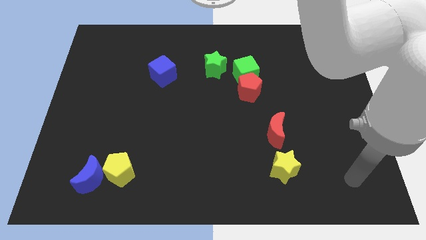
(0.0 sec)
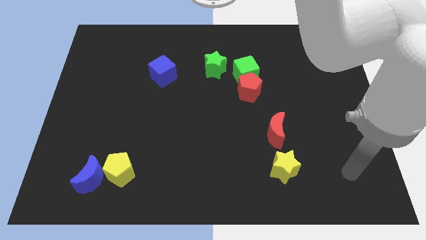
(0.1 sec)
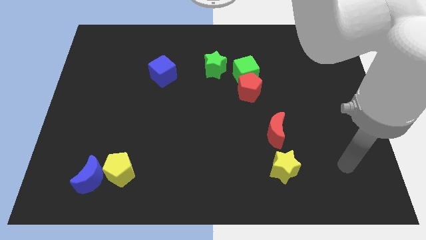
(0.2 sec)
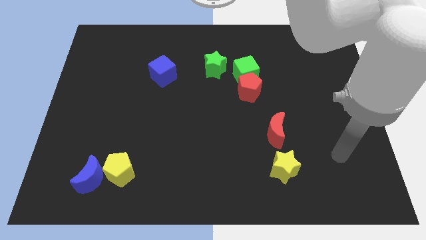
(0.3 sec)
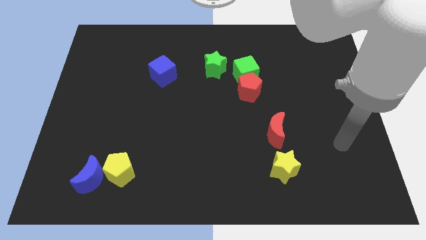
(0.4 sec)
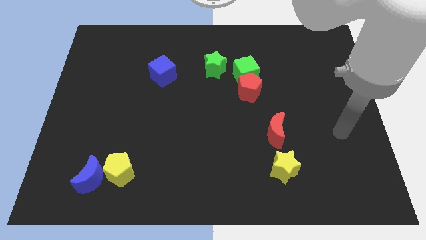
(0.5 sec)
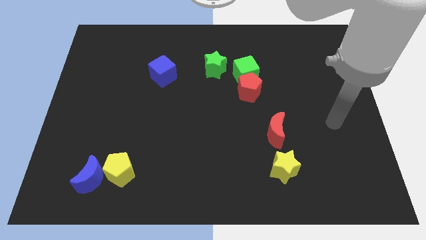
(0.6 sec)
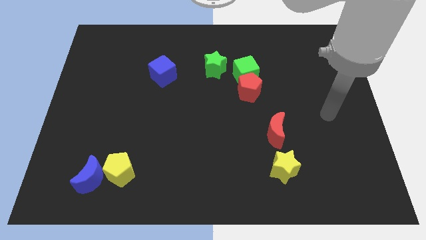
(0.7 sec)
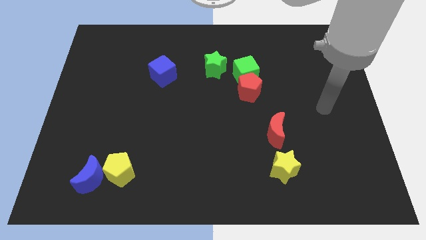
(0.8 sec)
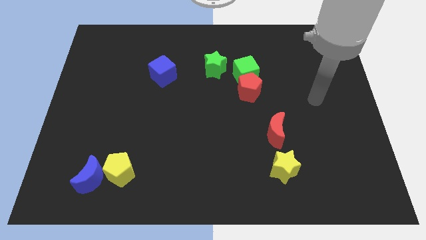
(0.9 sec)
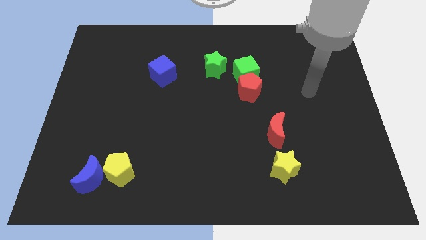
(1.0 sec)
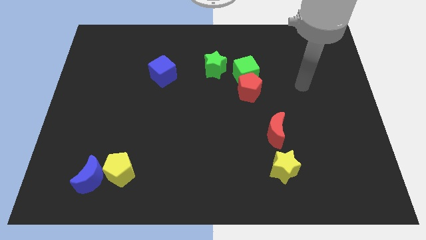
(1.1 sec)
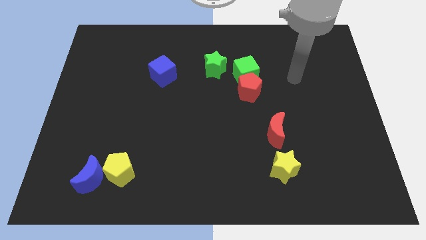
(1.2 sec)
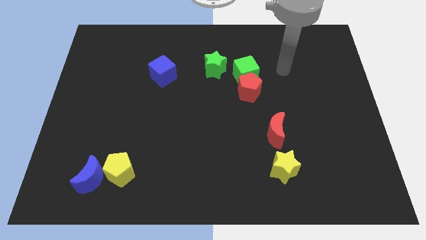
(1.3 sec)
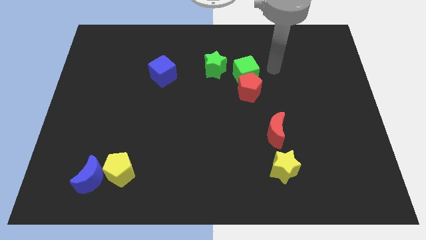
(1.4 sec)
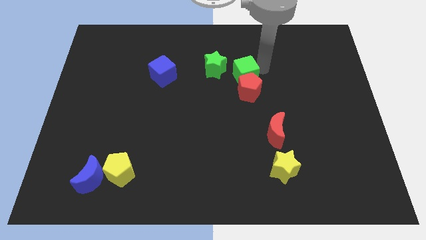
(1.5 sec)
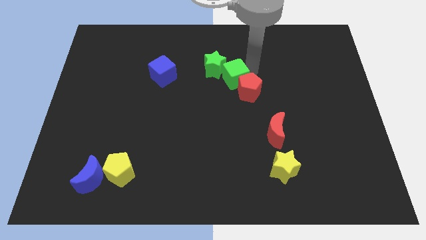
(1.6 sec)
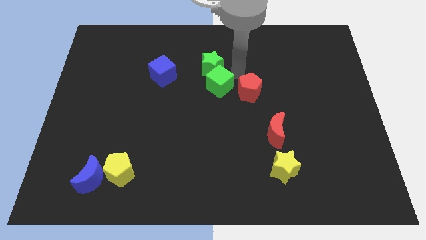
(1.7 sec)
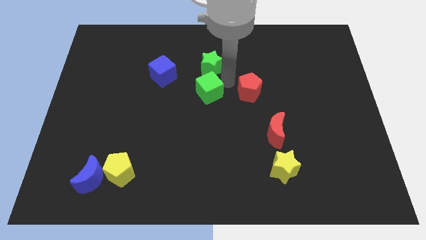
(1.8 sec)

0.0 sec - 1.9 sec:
pull the red pentagon apart from the green cube

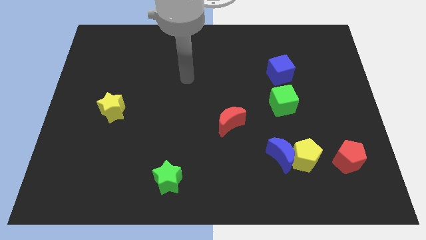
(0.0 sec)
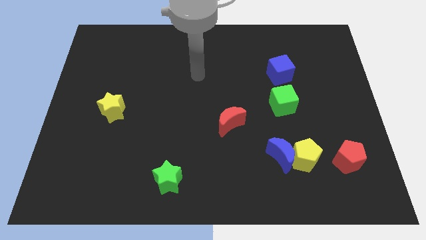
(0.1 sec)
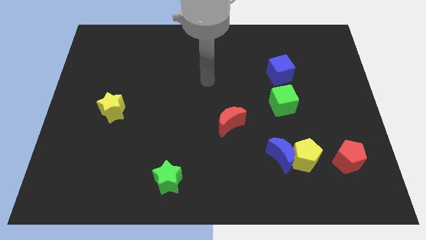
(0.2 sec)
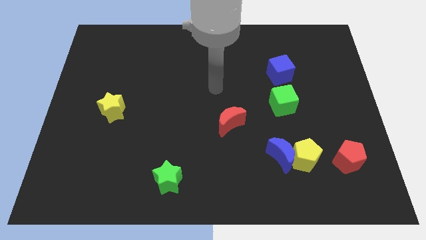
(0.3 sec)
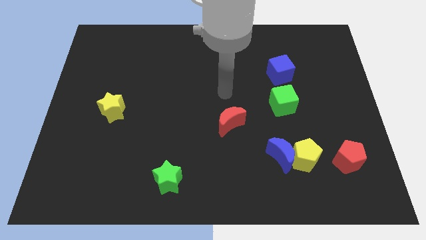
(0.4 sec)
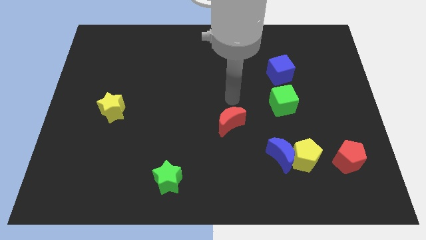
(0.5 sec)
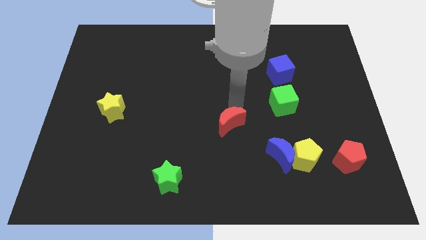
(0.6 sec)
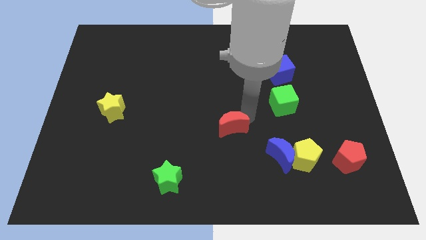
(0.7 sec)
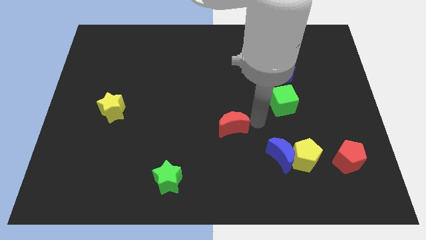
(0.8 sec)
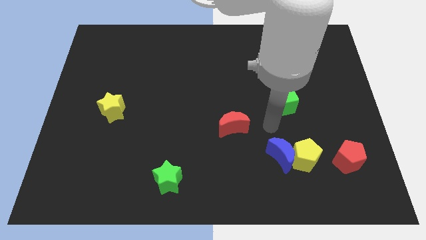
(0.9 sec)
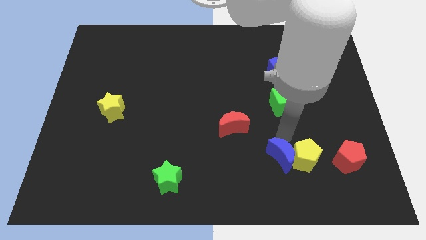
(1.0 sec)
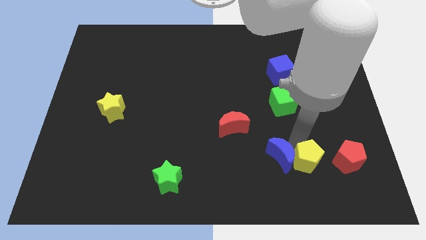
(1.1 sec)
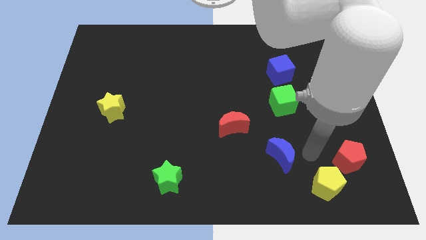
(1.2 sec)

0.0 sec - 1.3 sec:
move the blue moon away from the yellow pentagon

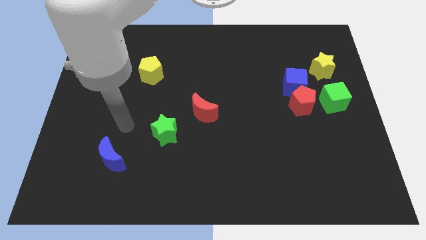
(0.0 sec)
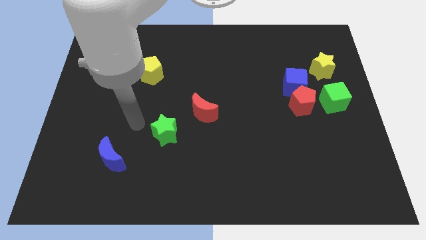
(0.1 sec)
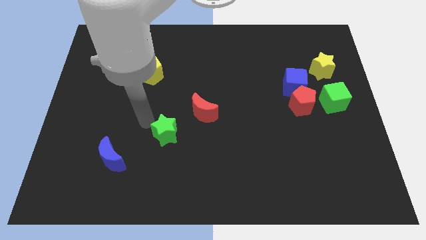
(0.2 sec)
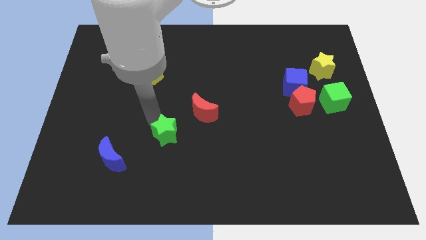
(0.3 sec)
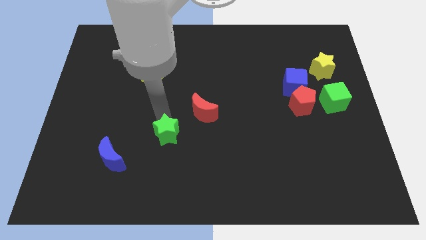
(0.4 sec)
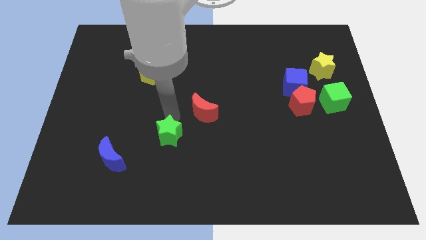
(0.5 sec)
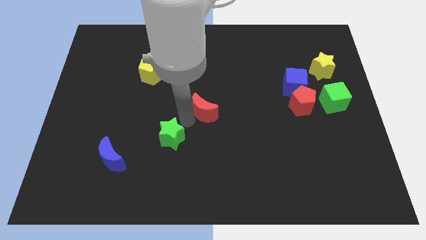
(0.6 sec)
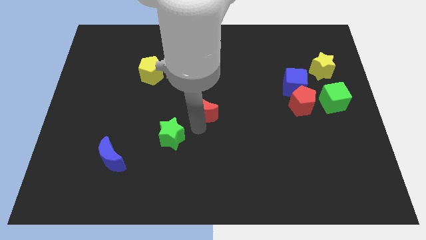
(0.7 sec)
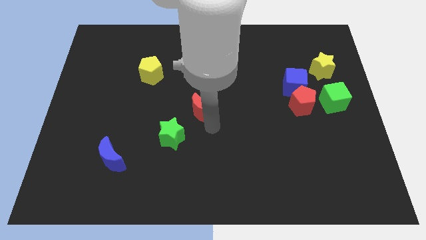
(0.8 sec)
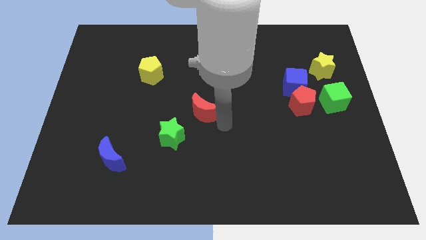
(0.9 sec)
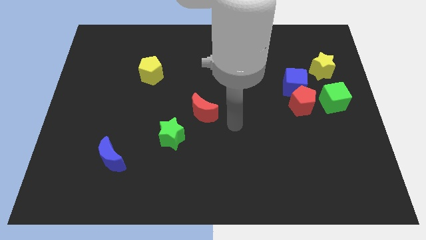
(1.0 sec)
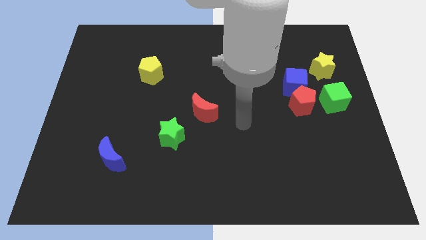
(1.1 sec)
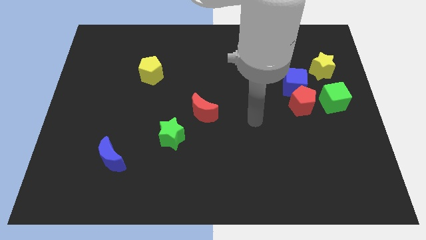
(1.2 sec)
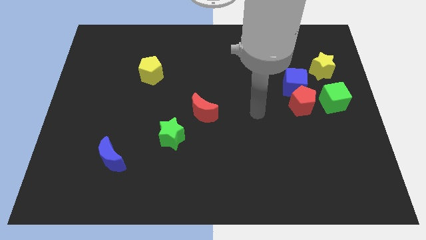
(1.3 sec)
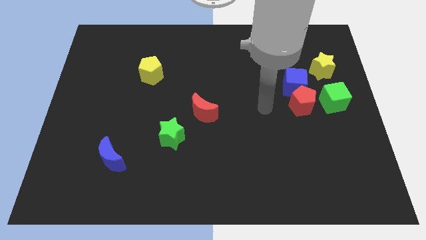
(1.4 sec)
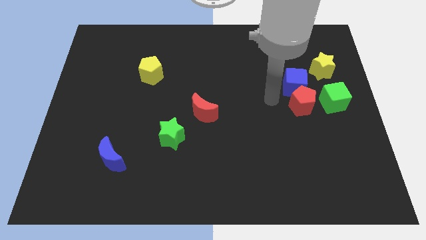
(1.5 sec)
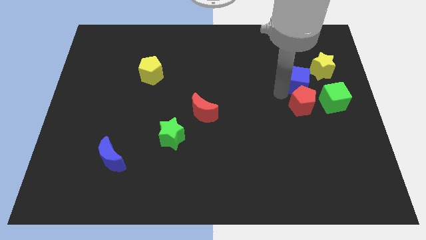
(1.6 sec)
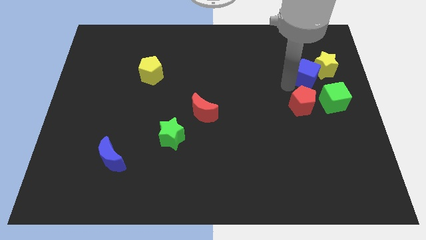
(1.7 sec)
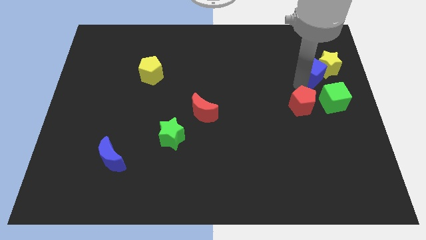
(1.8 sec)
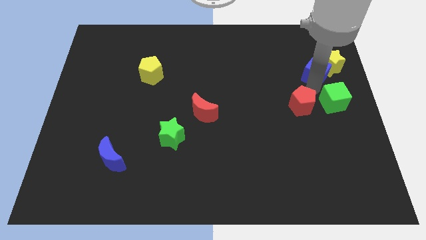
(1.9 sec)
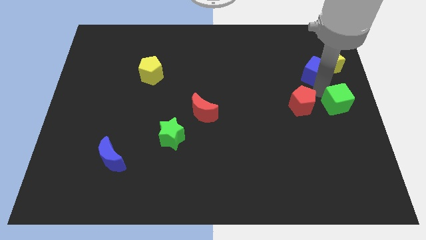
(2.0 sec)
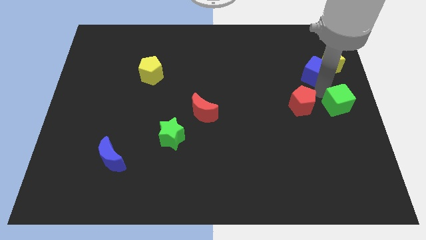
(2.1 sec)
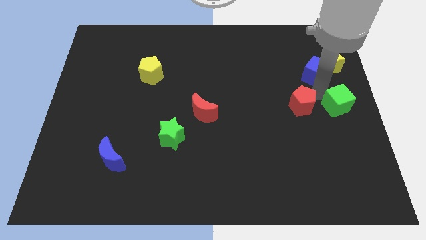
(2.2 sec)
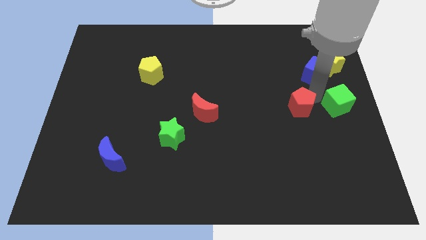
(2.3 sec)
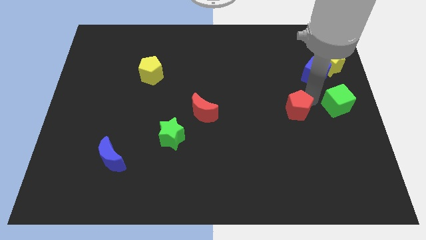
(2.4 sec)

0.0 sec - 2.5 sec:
pull the red pentagon apart from the blue cube and green cube

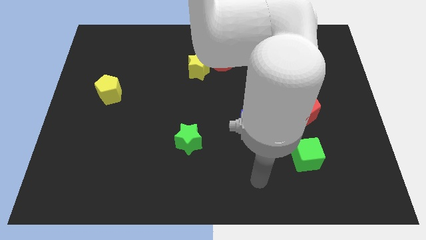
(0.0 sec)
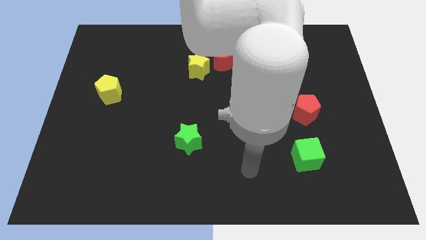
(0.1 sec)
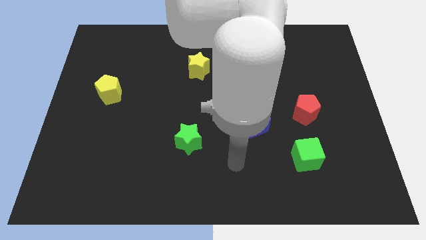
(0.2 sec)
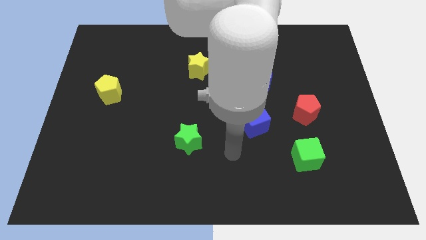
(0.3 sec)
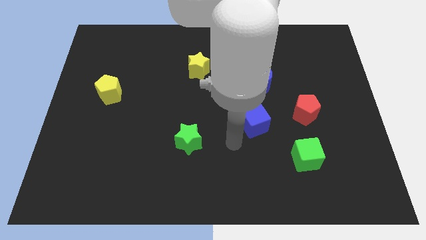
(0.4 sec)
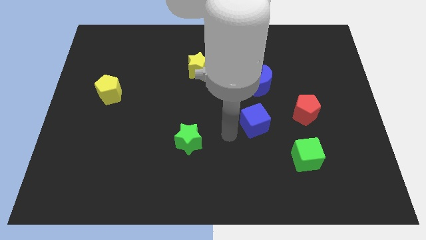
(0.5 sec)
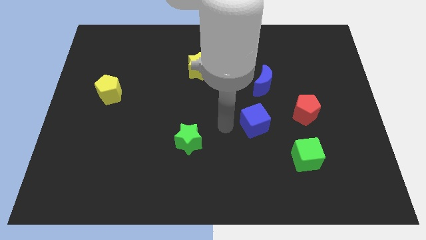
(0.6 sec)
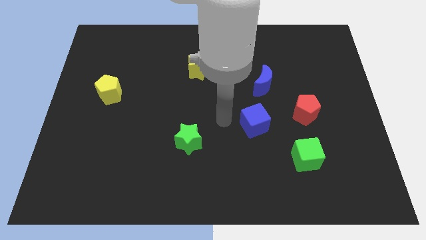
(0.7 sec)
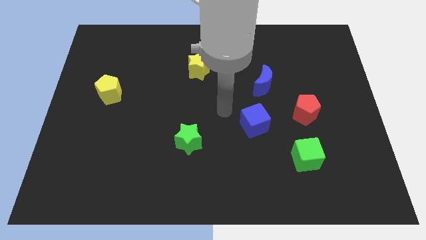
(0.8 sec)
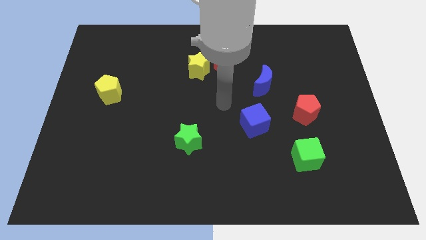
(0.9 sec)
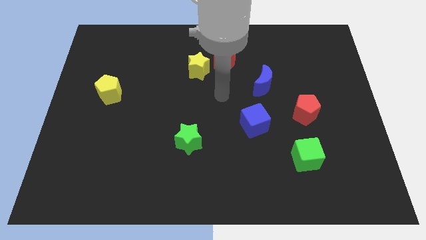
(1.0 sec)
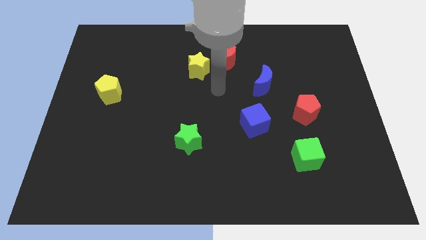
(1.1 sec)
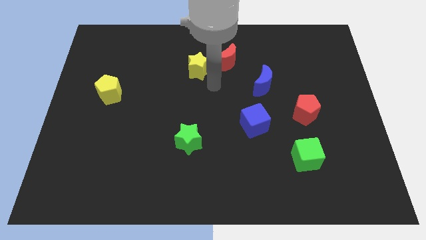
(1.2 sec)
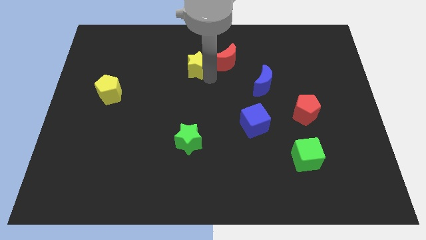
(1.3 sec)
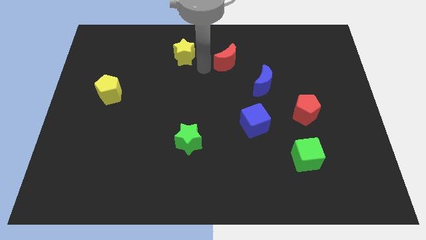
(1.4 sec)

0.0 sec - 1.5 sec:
pull the red moon apart from the yellow star

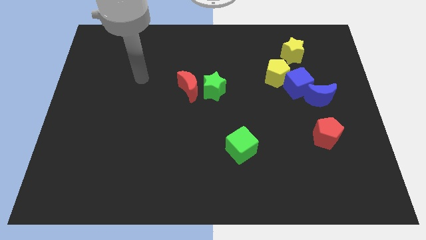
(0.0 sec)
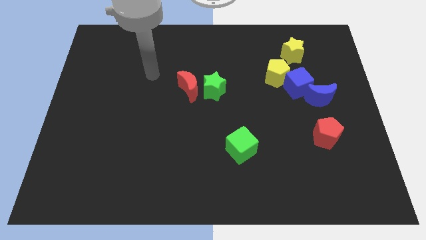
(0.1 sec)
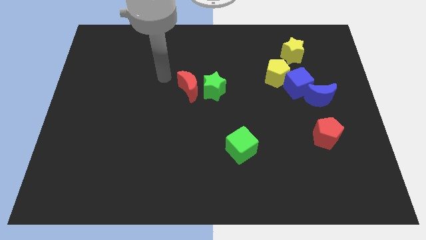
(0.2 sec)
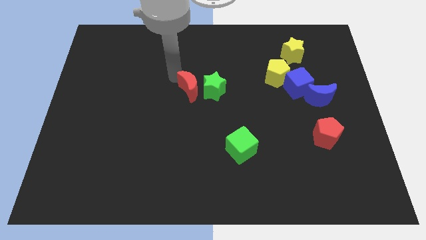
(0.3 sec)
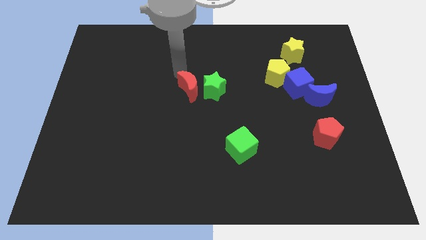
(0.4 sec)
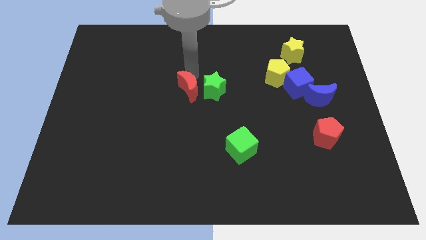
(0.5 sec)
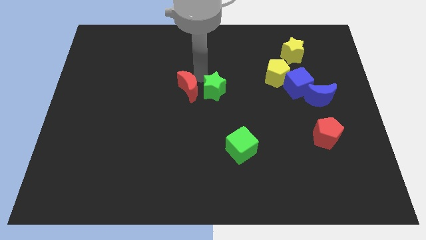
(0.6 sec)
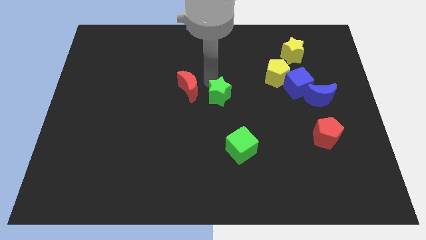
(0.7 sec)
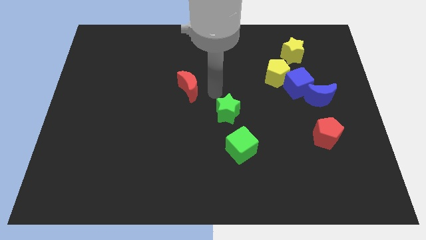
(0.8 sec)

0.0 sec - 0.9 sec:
separate the red moon from the green star

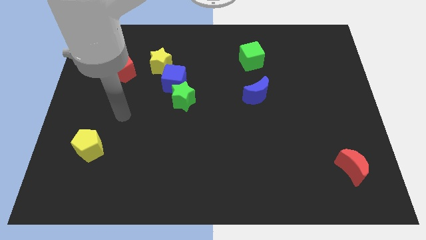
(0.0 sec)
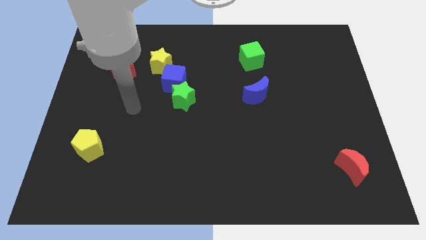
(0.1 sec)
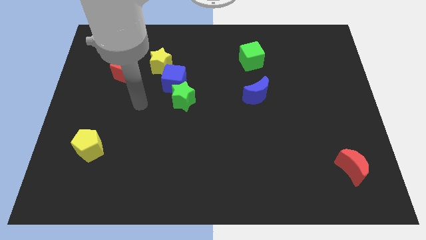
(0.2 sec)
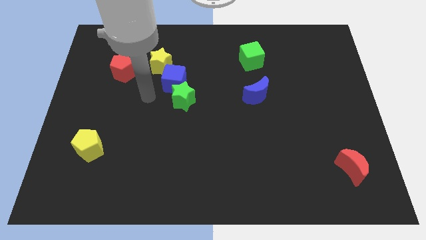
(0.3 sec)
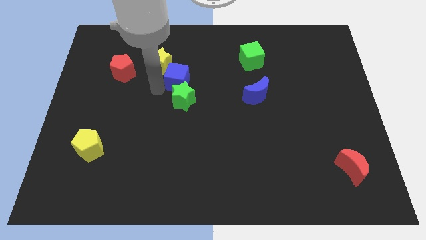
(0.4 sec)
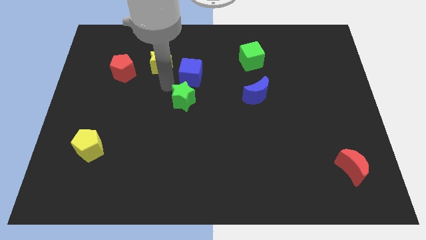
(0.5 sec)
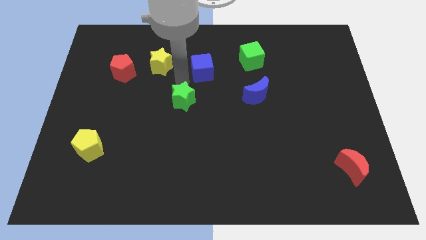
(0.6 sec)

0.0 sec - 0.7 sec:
separate the green star from the blue cube

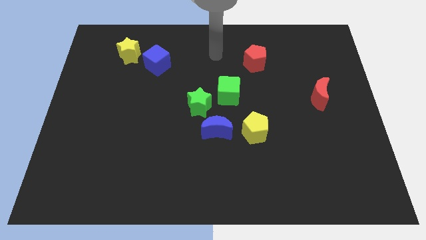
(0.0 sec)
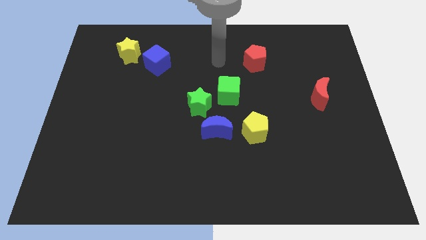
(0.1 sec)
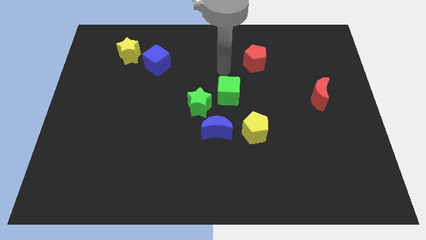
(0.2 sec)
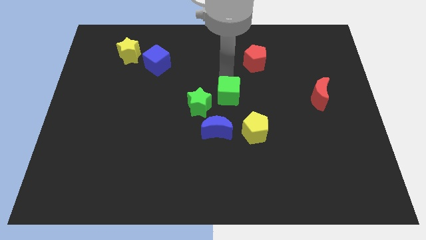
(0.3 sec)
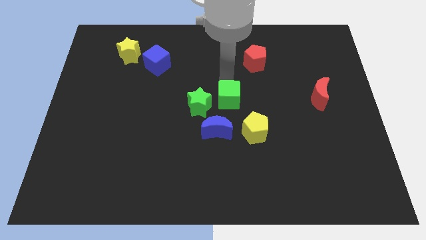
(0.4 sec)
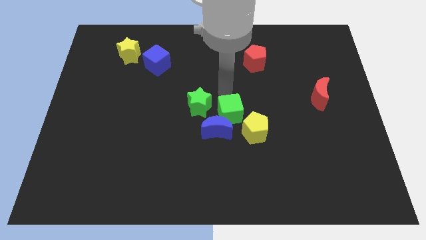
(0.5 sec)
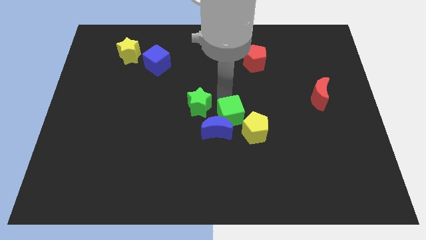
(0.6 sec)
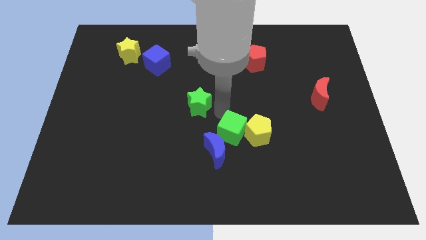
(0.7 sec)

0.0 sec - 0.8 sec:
move the green star away from the blue moon and green cube
